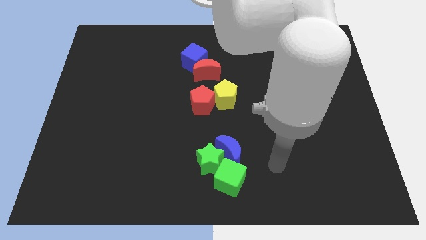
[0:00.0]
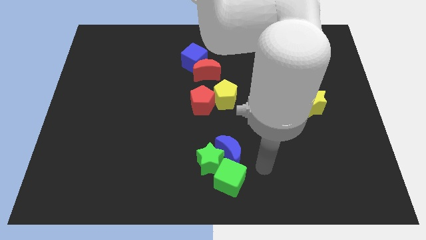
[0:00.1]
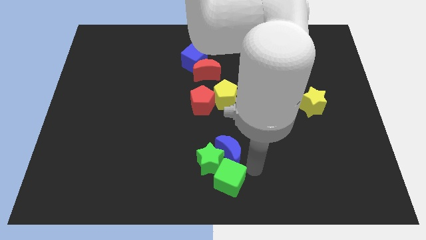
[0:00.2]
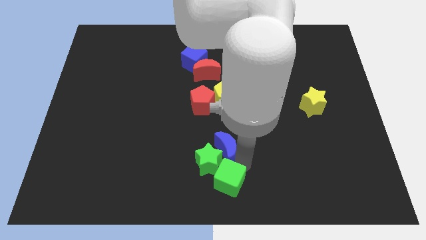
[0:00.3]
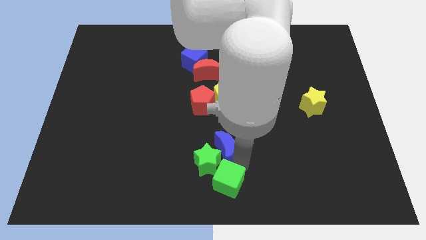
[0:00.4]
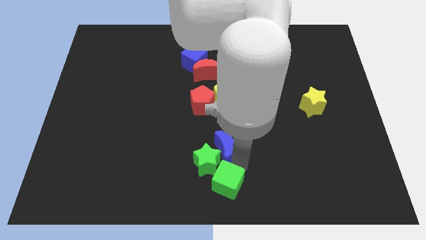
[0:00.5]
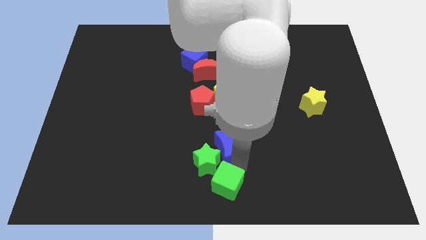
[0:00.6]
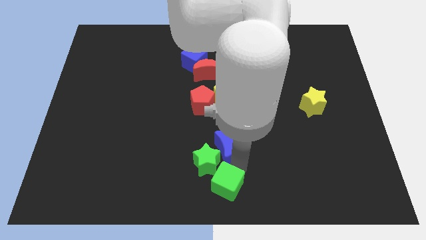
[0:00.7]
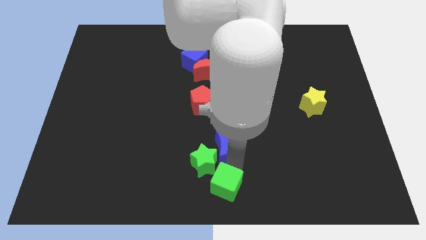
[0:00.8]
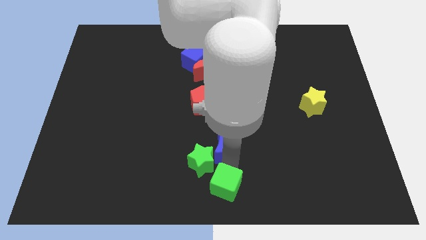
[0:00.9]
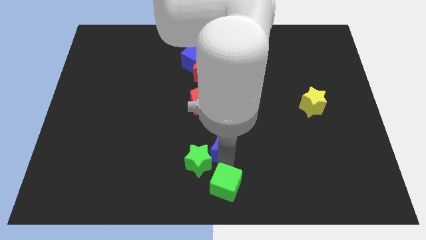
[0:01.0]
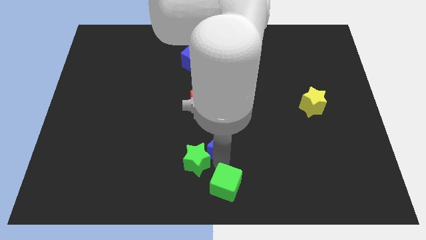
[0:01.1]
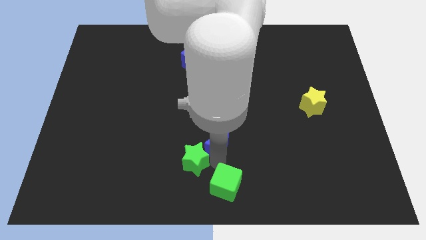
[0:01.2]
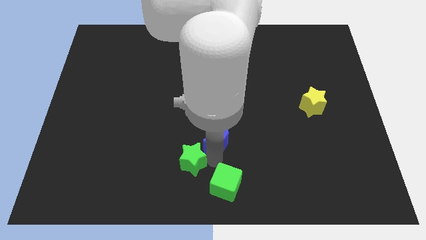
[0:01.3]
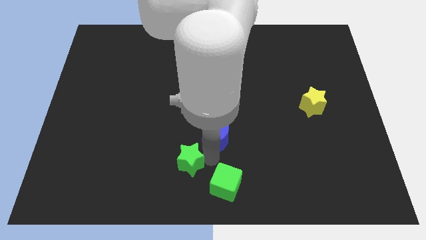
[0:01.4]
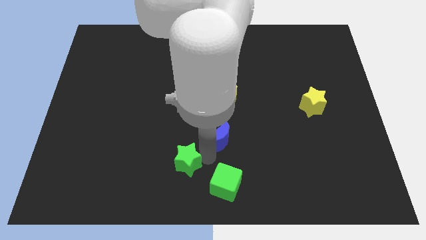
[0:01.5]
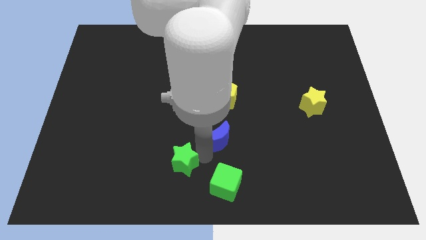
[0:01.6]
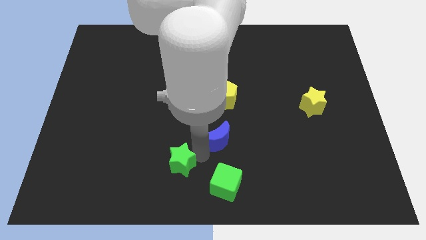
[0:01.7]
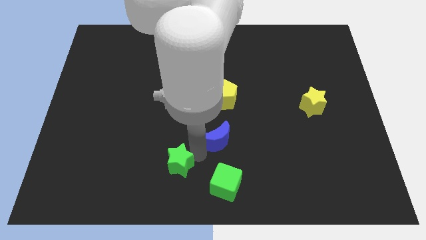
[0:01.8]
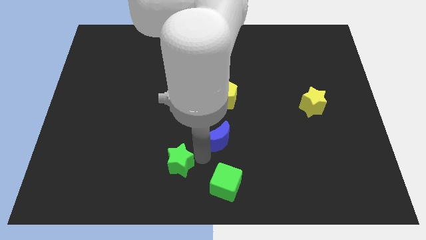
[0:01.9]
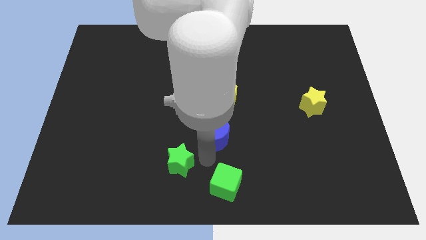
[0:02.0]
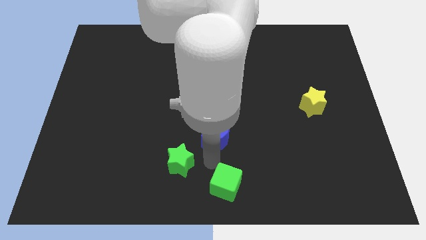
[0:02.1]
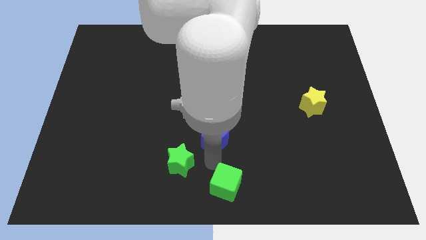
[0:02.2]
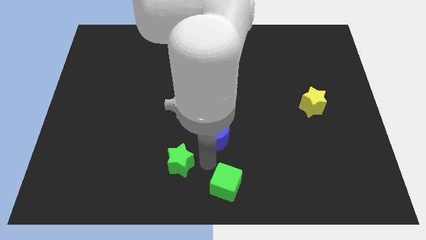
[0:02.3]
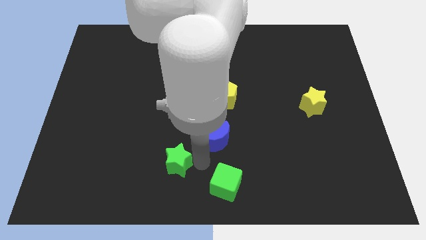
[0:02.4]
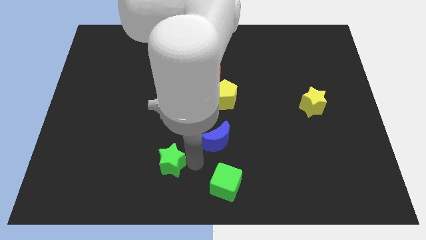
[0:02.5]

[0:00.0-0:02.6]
separate the green star from the blue moon and green cube

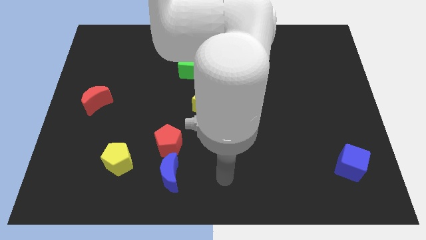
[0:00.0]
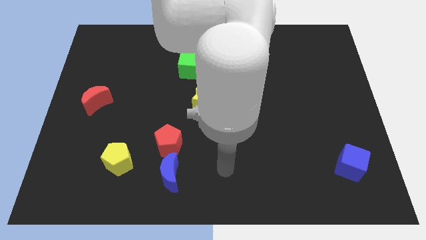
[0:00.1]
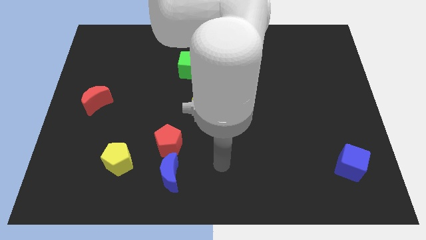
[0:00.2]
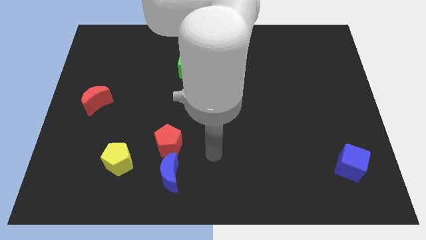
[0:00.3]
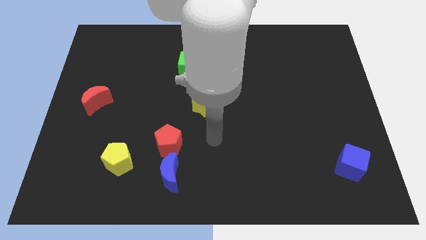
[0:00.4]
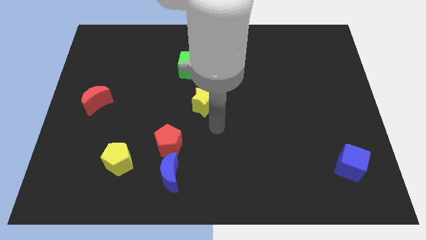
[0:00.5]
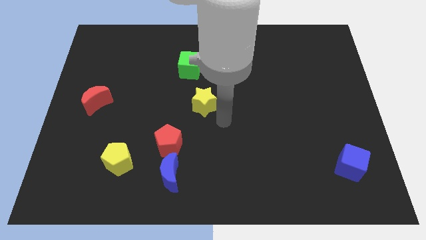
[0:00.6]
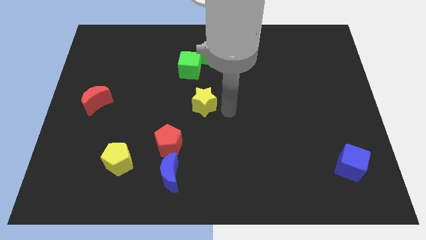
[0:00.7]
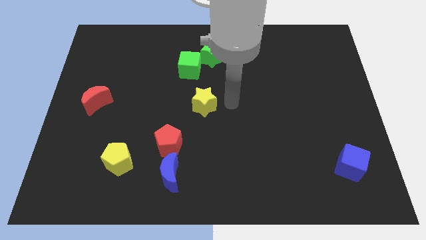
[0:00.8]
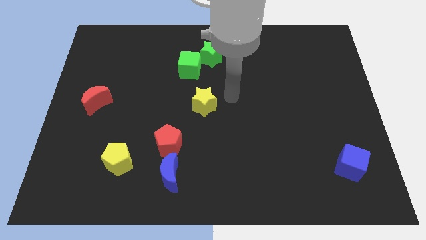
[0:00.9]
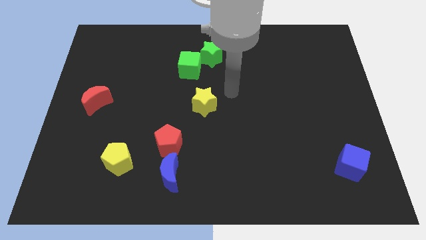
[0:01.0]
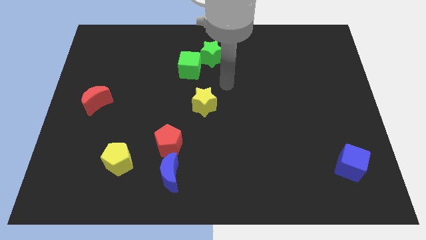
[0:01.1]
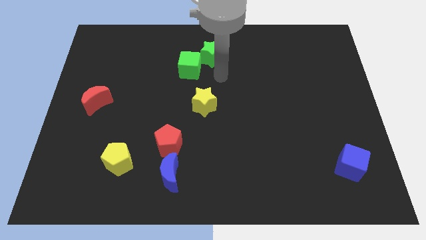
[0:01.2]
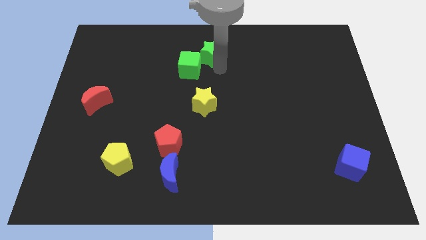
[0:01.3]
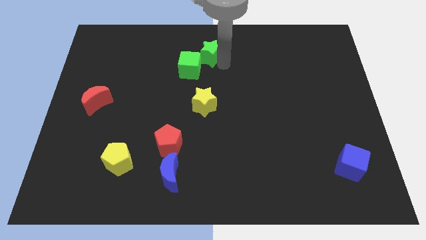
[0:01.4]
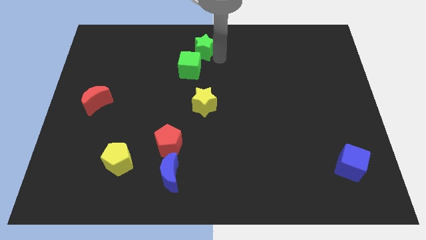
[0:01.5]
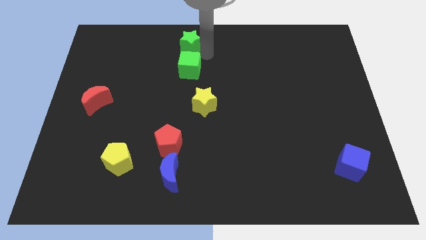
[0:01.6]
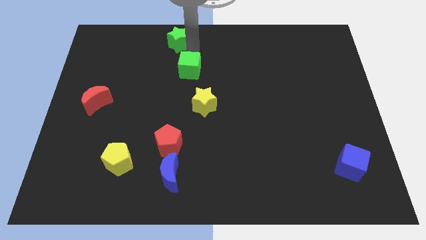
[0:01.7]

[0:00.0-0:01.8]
move the green cube away from the green star

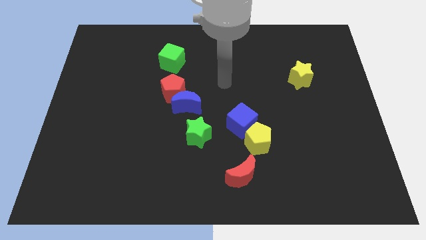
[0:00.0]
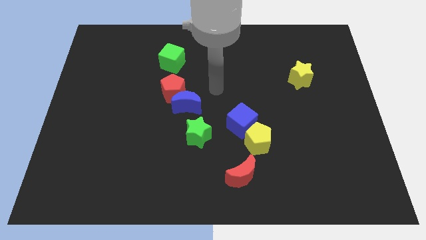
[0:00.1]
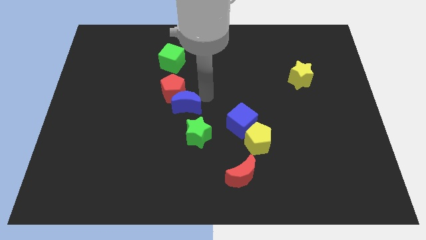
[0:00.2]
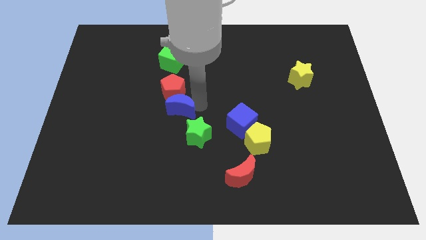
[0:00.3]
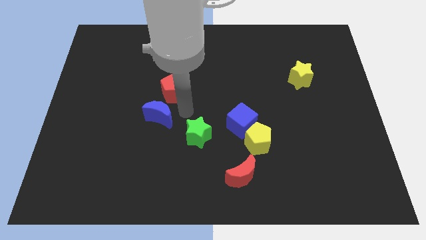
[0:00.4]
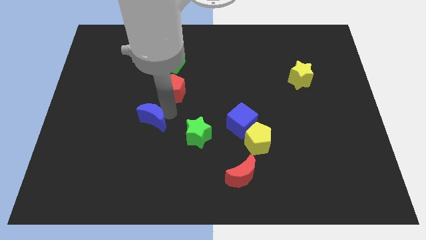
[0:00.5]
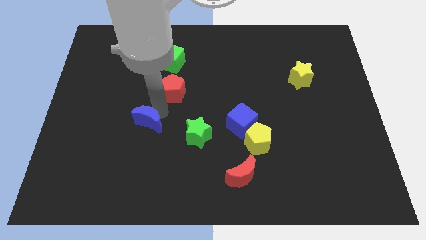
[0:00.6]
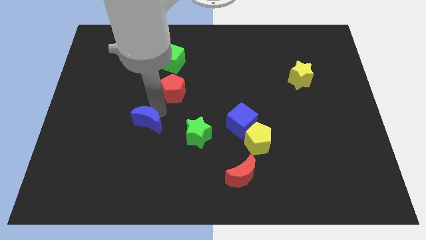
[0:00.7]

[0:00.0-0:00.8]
separate the red pentagon from the blue moon

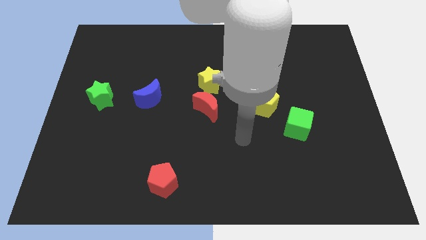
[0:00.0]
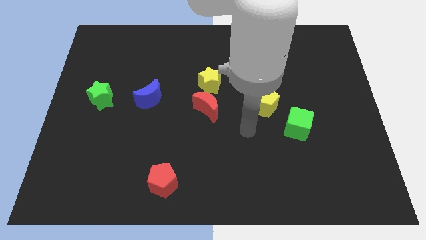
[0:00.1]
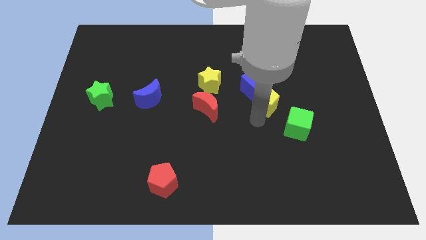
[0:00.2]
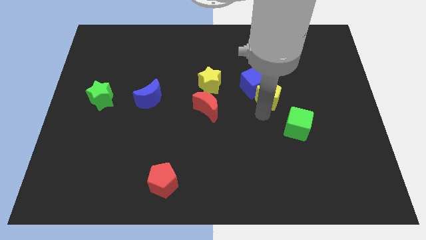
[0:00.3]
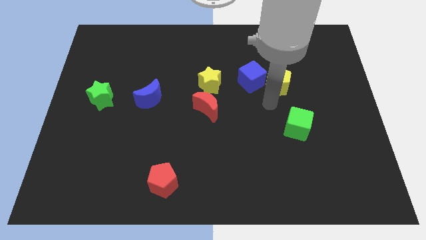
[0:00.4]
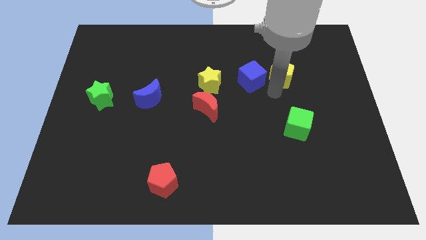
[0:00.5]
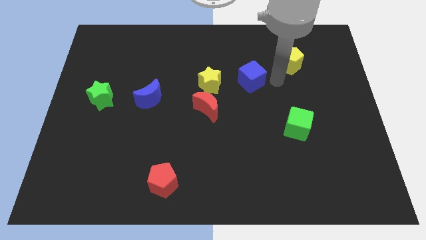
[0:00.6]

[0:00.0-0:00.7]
separate the blue cube from the yellow pentagon

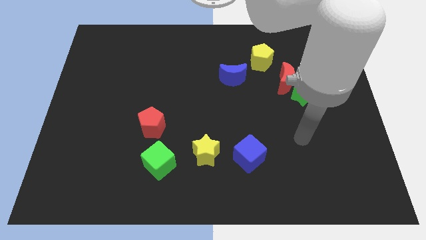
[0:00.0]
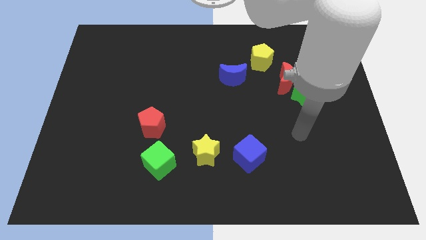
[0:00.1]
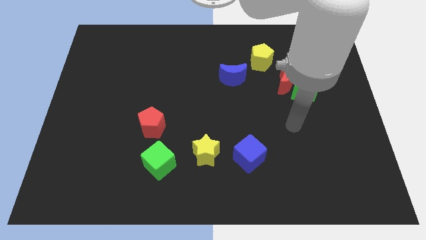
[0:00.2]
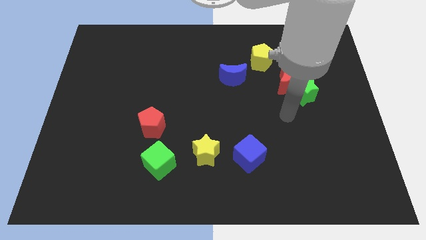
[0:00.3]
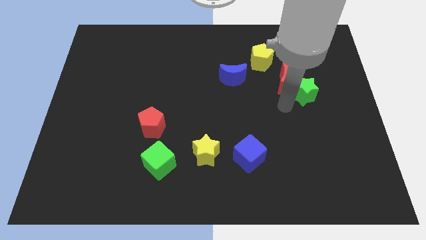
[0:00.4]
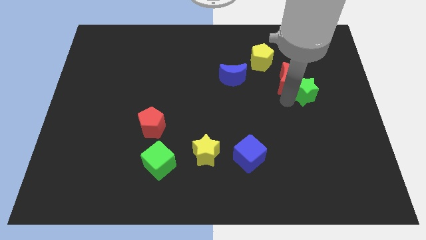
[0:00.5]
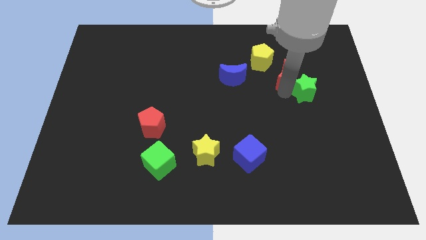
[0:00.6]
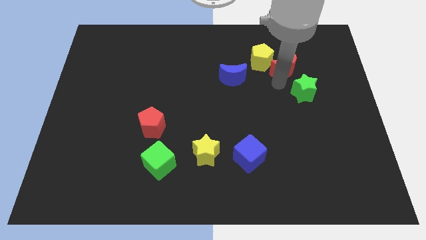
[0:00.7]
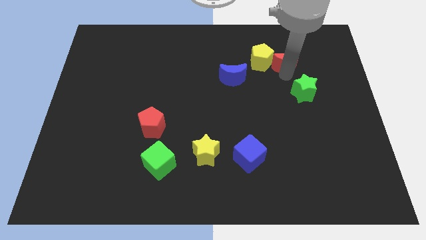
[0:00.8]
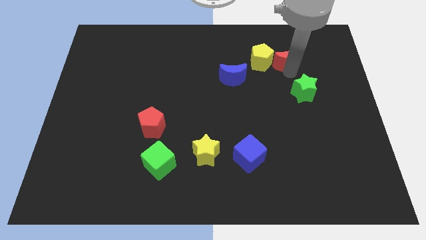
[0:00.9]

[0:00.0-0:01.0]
move the green star away from the red moon

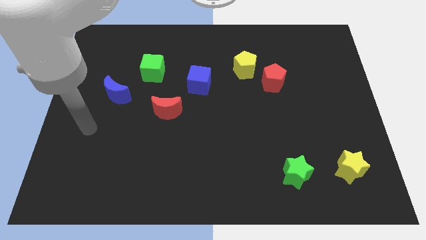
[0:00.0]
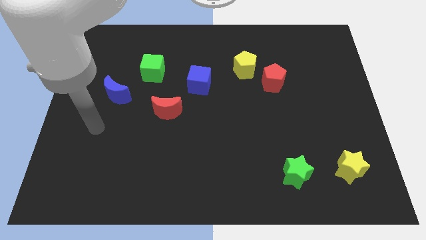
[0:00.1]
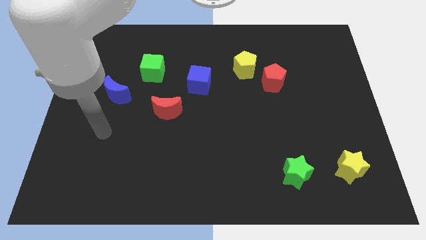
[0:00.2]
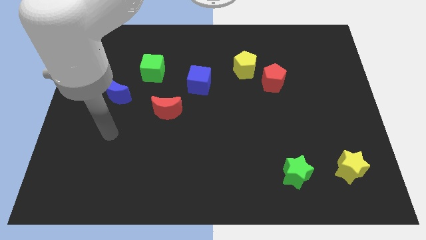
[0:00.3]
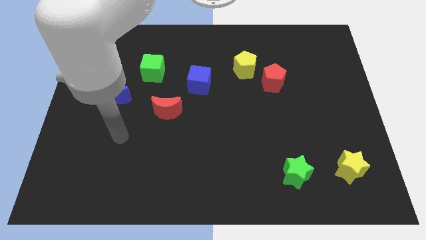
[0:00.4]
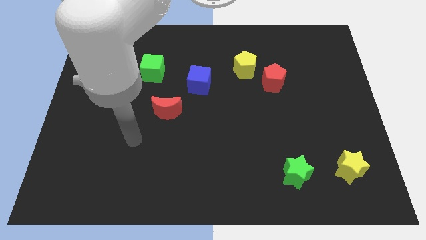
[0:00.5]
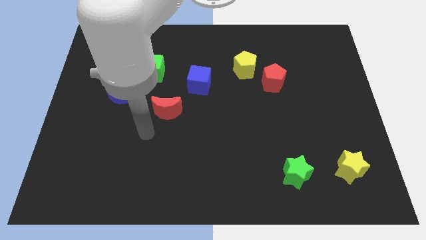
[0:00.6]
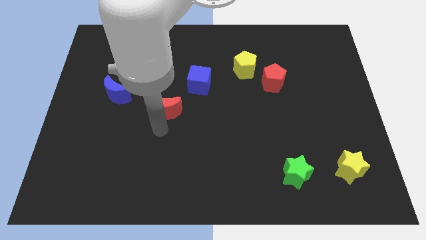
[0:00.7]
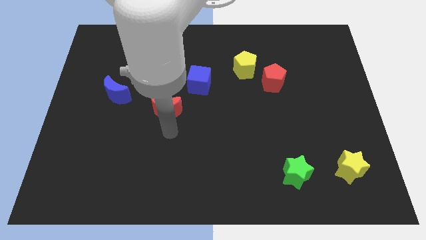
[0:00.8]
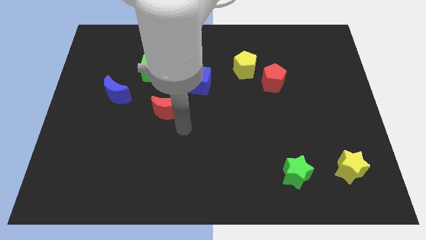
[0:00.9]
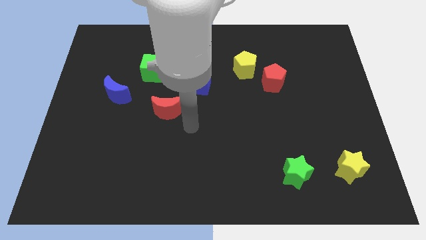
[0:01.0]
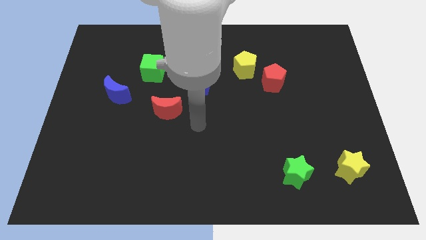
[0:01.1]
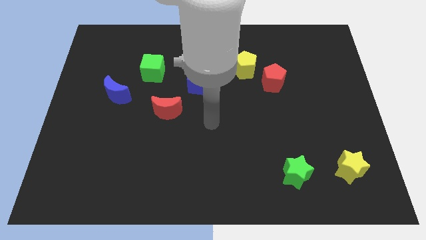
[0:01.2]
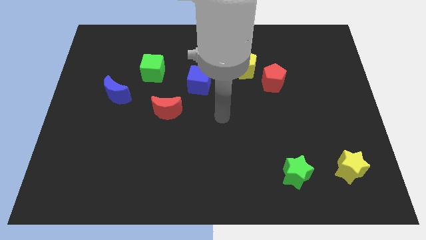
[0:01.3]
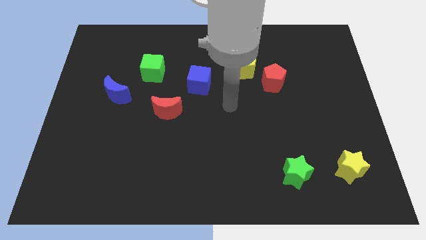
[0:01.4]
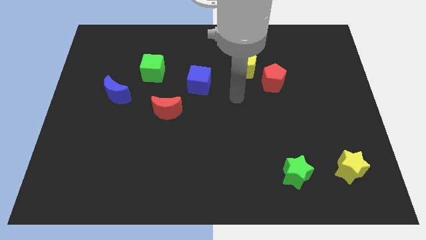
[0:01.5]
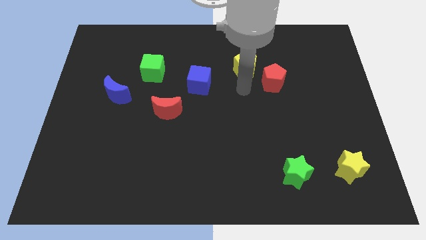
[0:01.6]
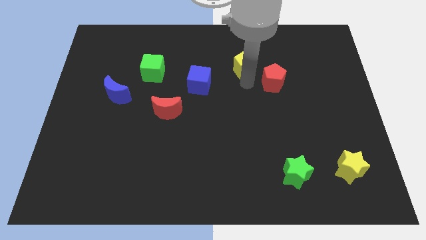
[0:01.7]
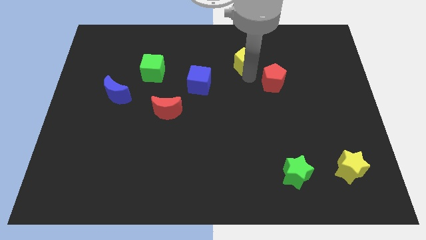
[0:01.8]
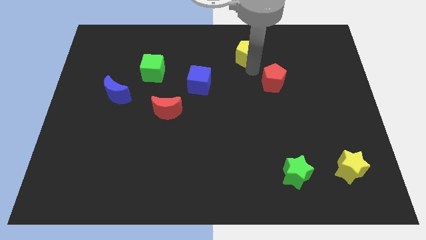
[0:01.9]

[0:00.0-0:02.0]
separate the red pentagon from the yellow pentagon

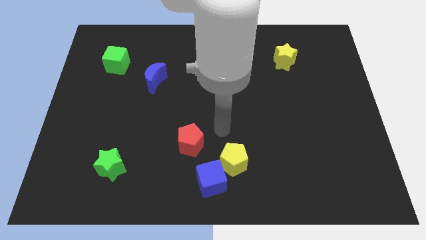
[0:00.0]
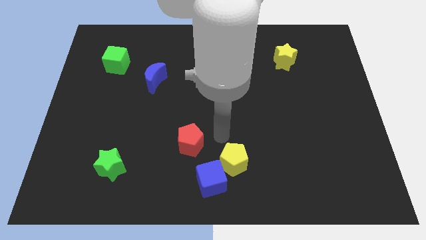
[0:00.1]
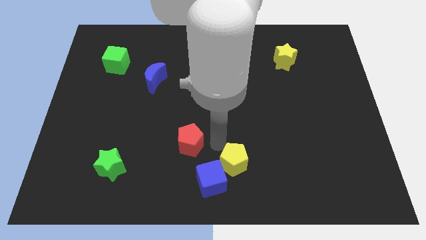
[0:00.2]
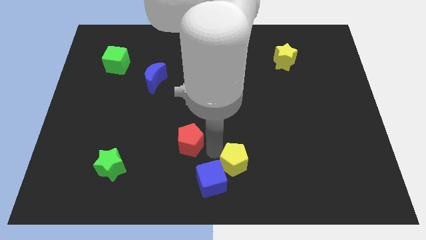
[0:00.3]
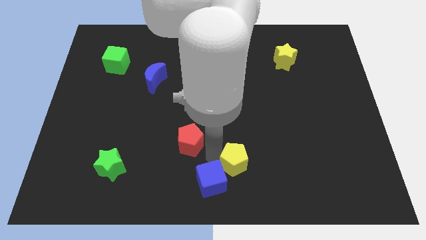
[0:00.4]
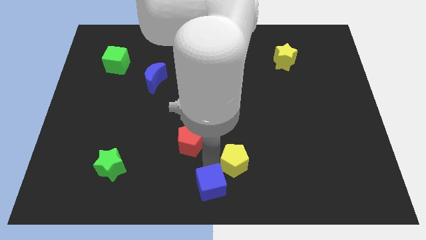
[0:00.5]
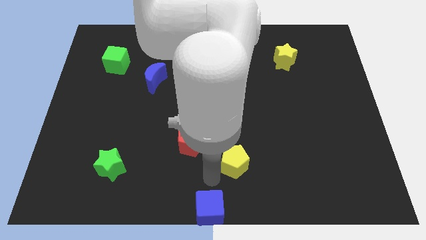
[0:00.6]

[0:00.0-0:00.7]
move the yellow pentagon away from the blue cube
